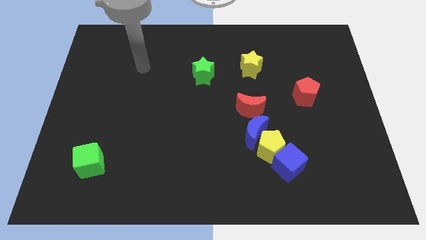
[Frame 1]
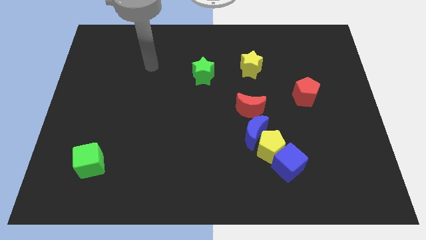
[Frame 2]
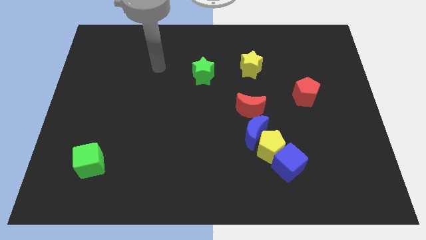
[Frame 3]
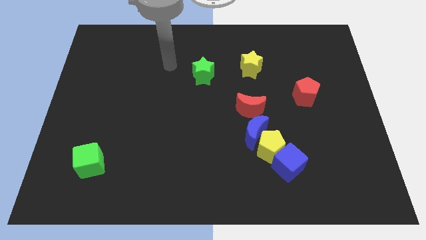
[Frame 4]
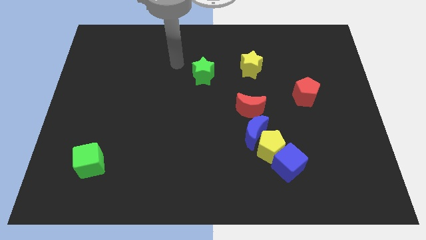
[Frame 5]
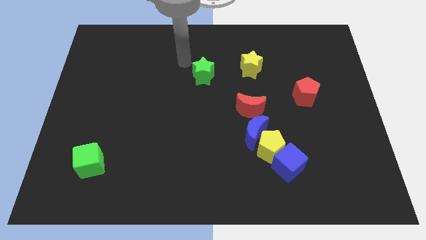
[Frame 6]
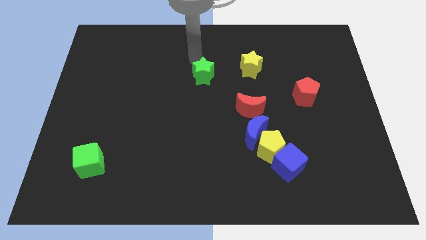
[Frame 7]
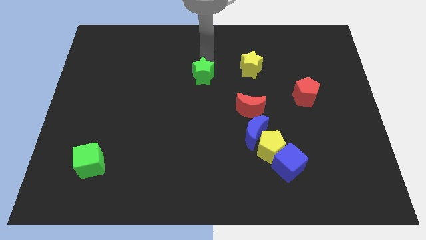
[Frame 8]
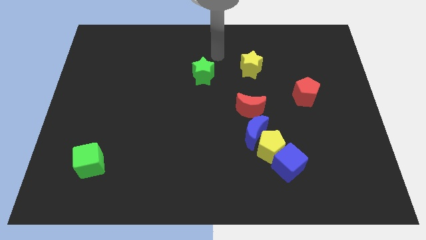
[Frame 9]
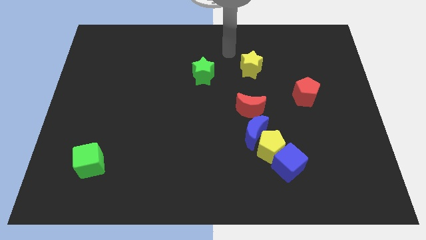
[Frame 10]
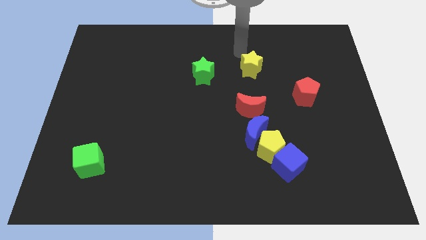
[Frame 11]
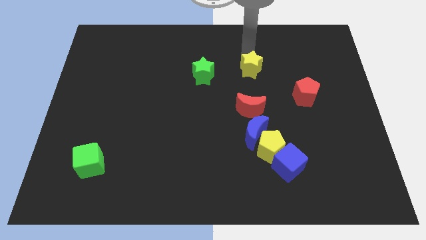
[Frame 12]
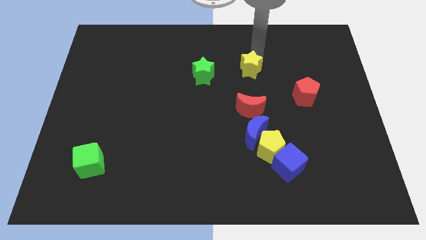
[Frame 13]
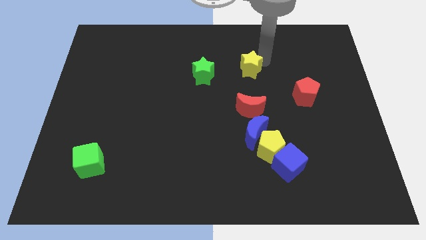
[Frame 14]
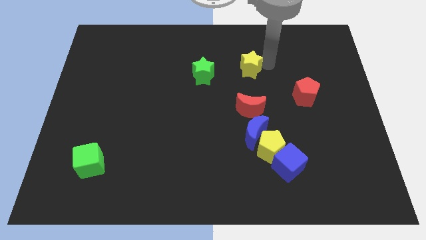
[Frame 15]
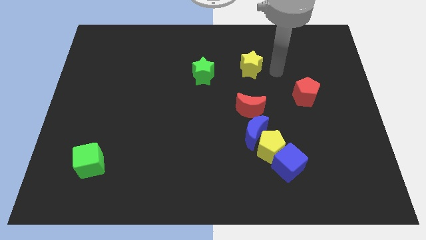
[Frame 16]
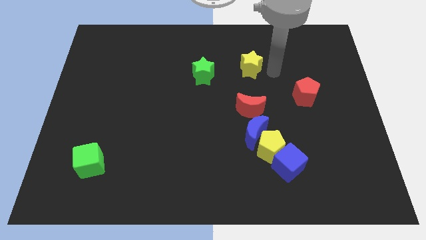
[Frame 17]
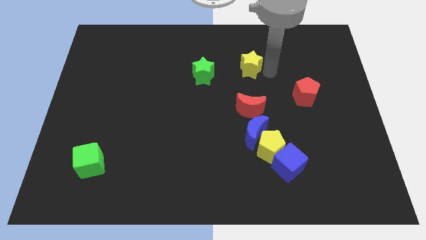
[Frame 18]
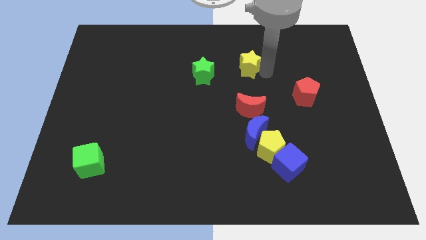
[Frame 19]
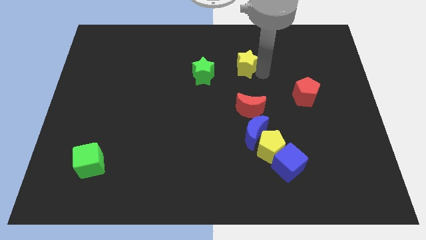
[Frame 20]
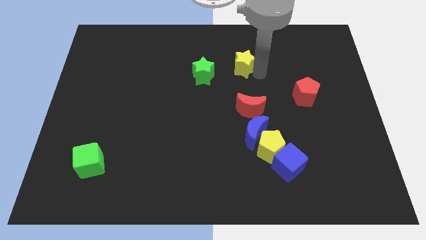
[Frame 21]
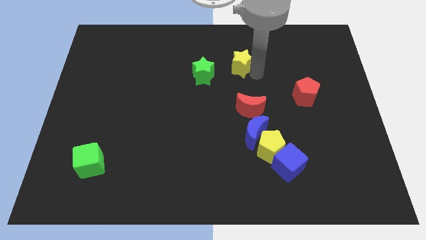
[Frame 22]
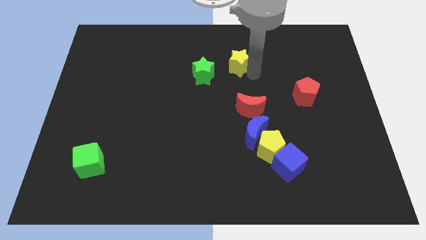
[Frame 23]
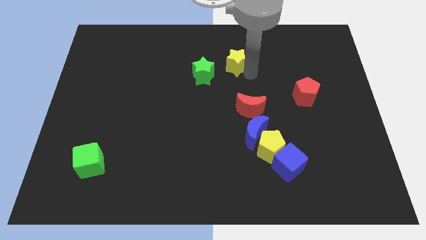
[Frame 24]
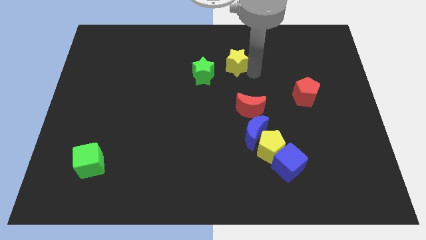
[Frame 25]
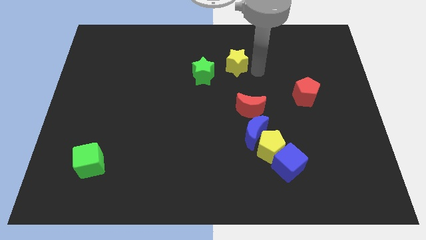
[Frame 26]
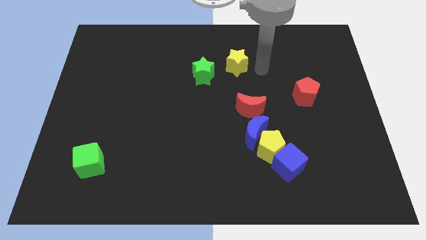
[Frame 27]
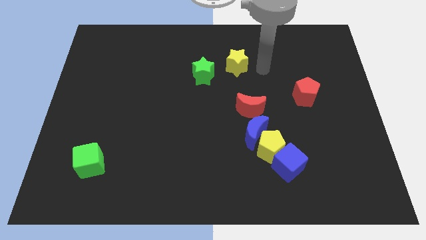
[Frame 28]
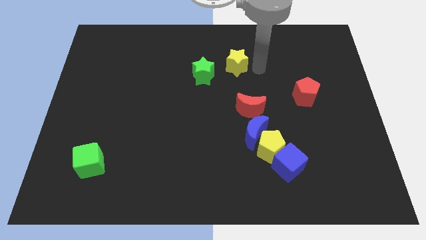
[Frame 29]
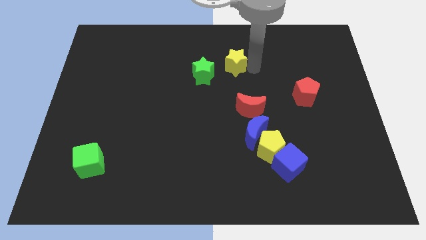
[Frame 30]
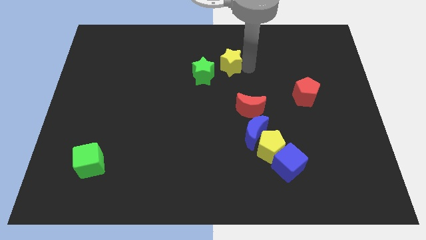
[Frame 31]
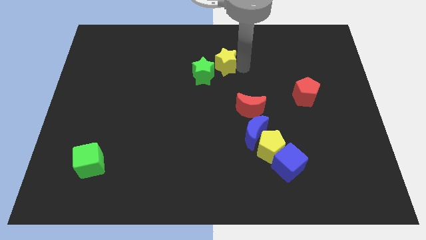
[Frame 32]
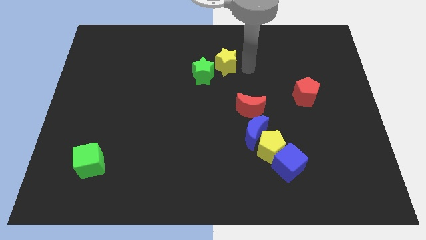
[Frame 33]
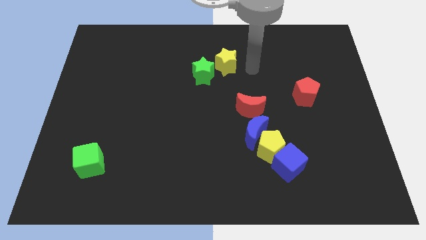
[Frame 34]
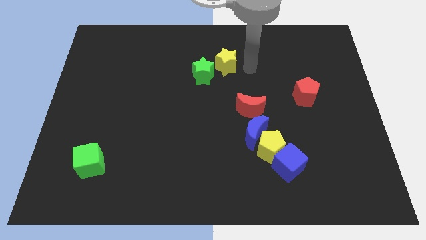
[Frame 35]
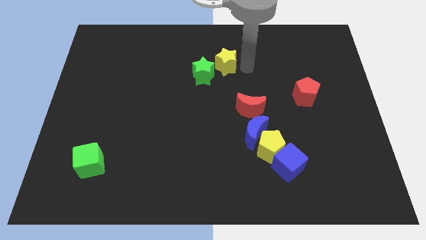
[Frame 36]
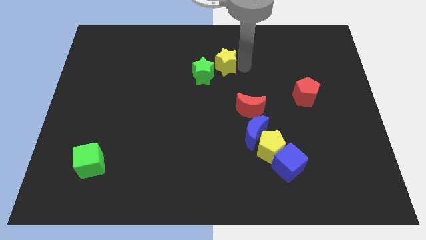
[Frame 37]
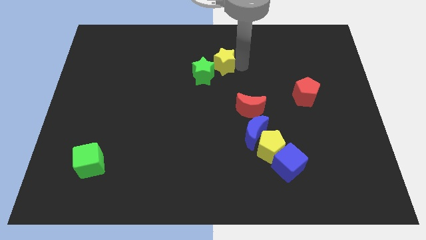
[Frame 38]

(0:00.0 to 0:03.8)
push the yellow star slightly left

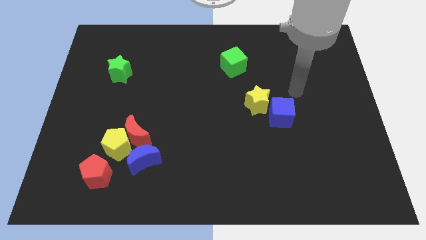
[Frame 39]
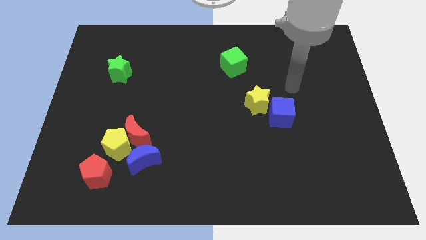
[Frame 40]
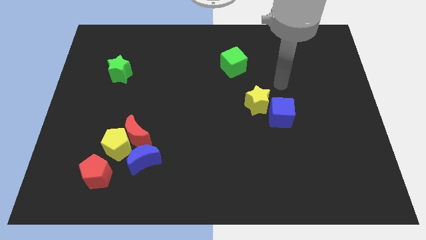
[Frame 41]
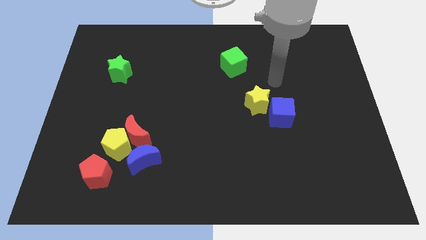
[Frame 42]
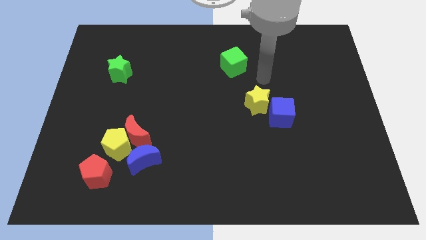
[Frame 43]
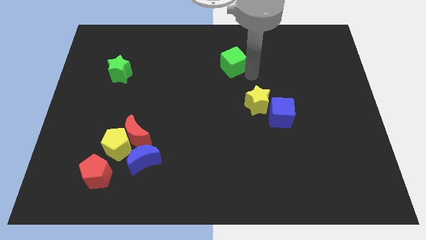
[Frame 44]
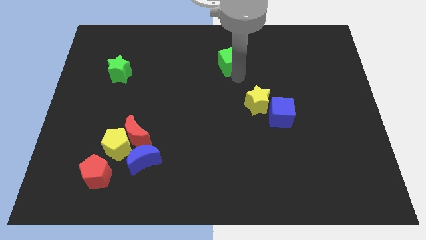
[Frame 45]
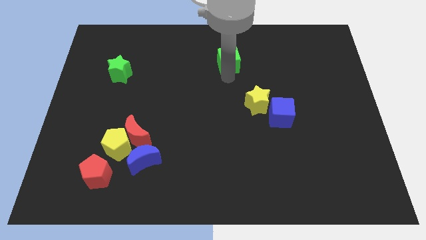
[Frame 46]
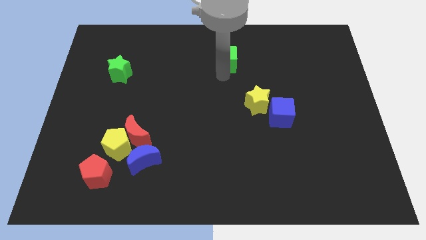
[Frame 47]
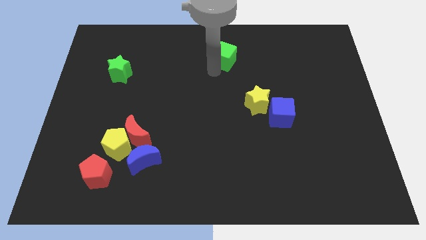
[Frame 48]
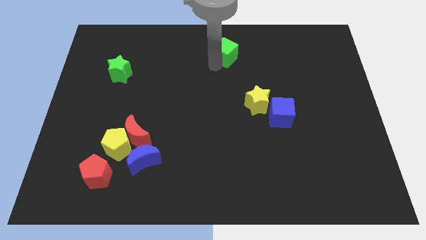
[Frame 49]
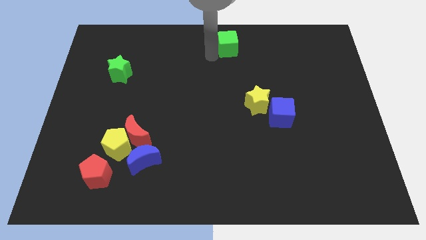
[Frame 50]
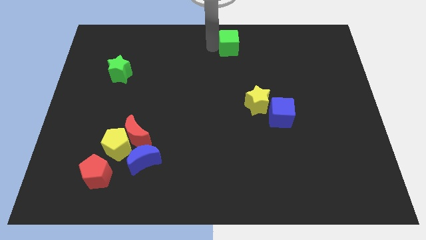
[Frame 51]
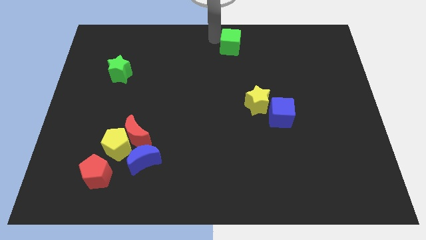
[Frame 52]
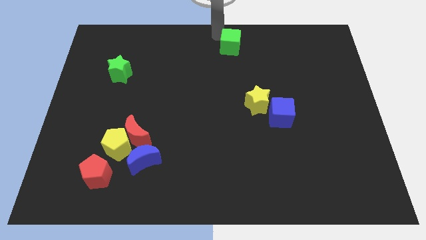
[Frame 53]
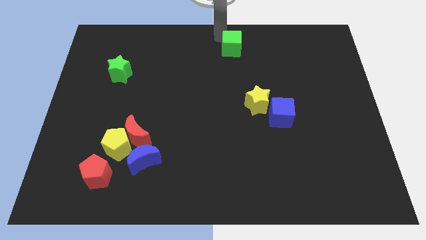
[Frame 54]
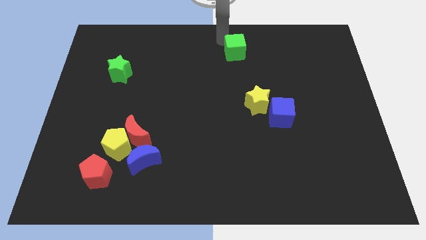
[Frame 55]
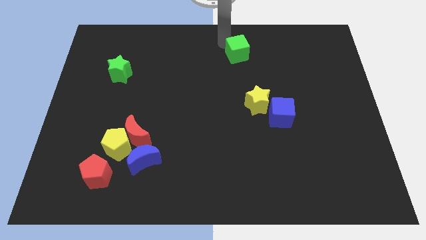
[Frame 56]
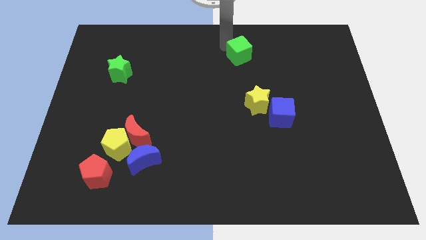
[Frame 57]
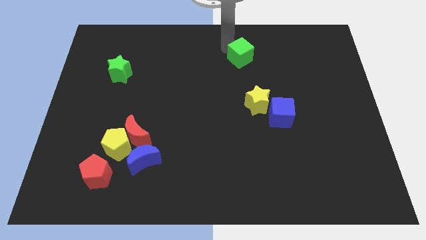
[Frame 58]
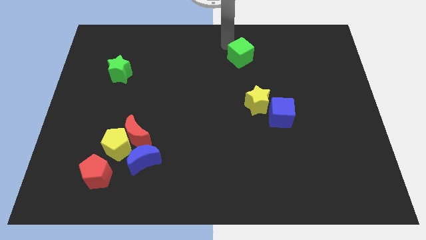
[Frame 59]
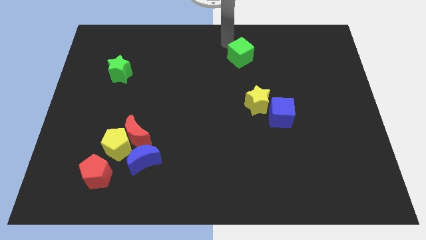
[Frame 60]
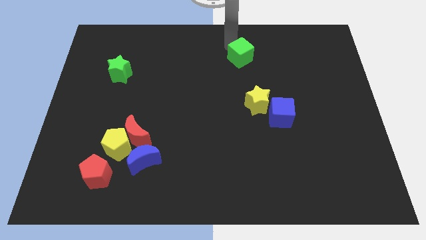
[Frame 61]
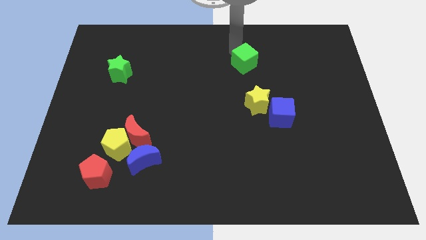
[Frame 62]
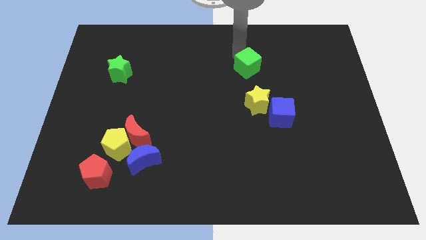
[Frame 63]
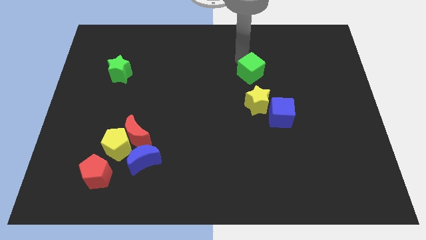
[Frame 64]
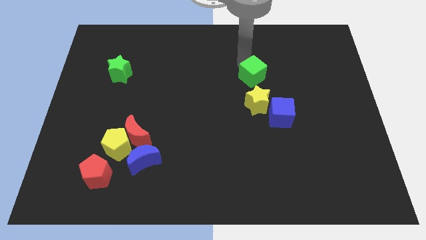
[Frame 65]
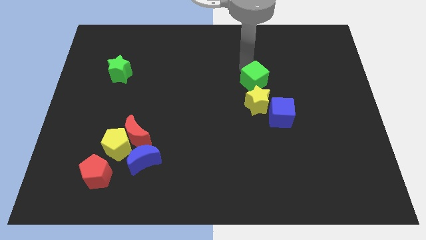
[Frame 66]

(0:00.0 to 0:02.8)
push the green cube a little bit down and then to the right

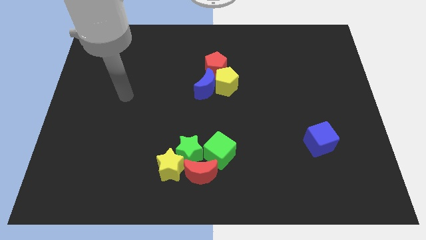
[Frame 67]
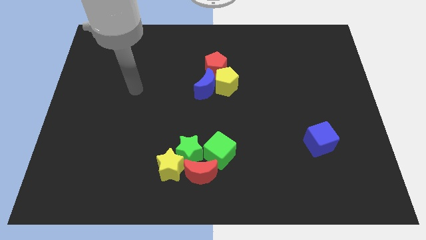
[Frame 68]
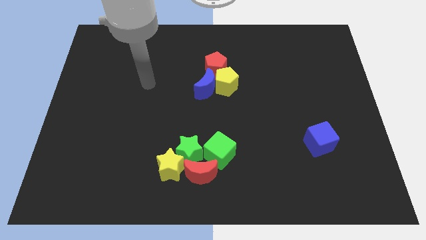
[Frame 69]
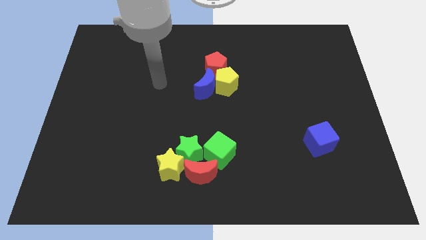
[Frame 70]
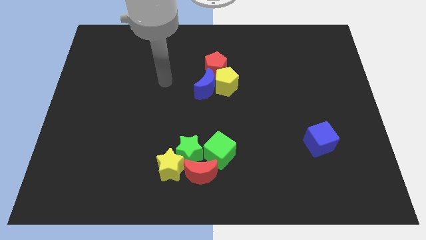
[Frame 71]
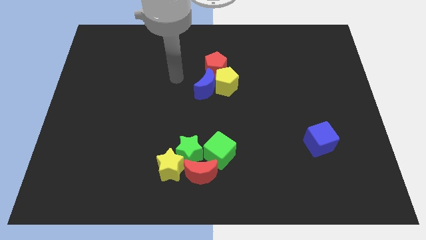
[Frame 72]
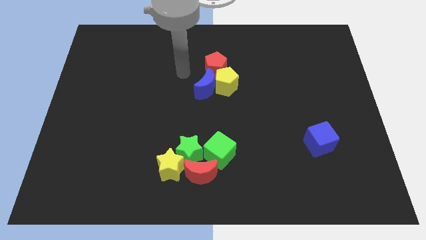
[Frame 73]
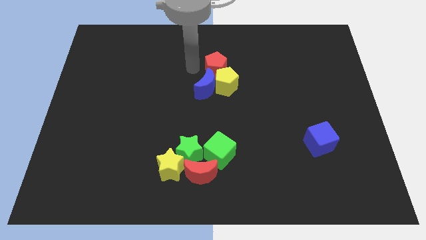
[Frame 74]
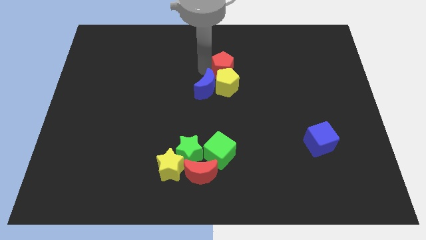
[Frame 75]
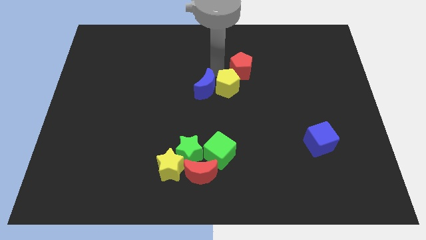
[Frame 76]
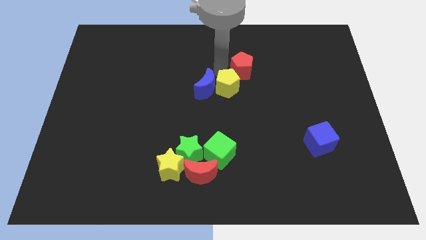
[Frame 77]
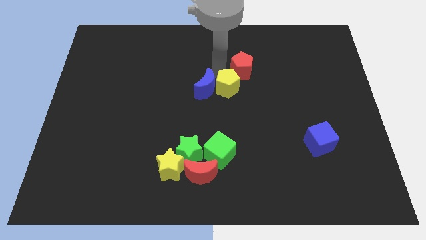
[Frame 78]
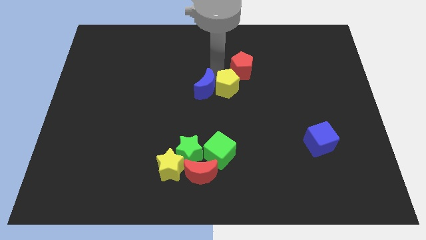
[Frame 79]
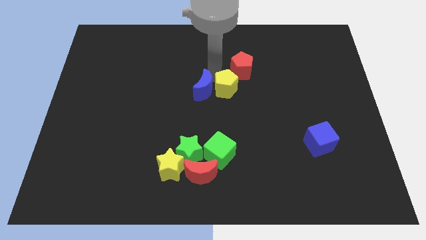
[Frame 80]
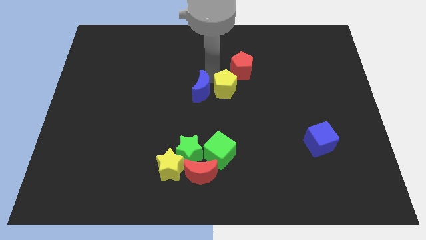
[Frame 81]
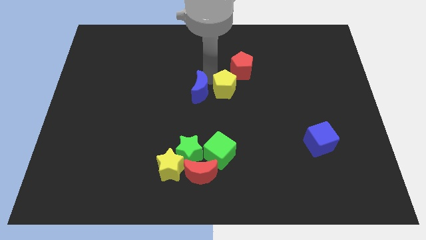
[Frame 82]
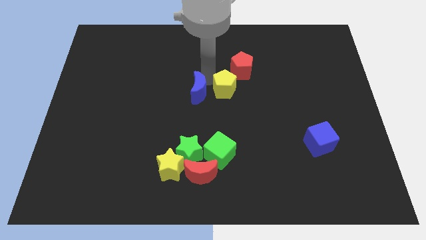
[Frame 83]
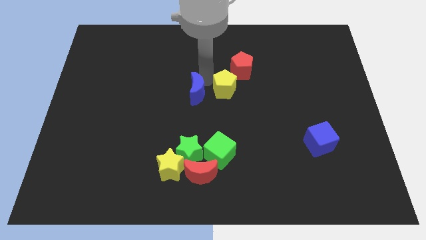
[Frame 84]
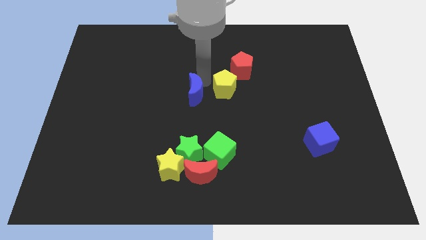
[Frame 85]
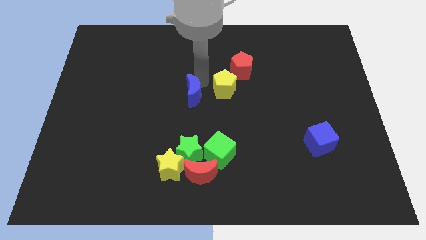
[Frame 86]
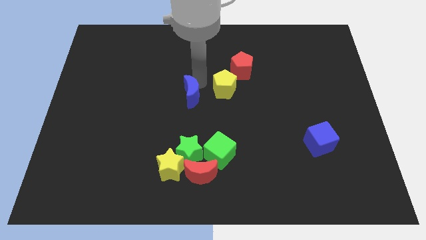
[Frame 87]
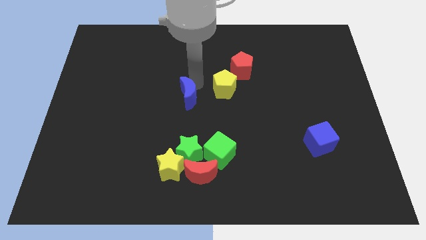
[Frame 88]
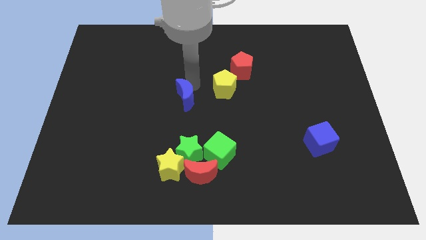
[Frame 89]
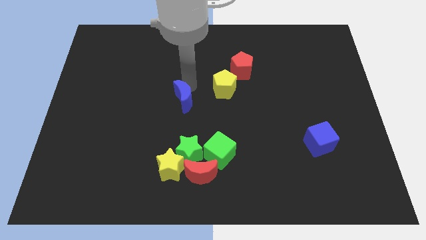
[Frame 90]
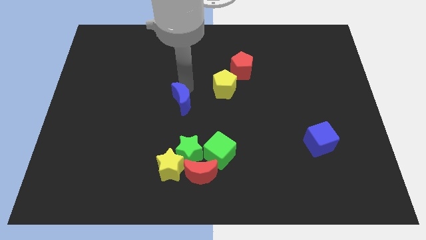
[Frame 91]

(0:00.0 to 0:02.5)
slightly push the blue moon diagonally down and to the left
